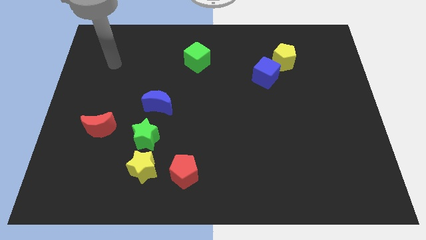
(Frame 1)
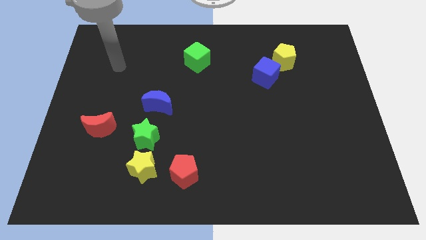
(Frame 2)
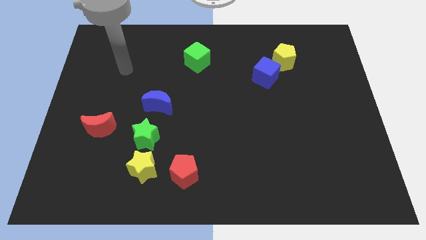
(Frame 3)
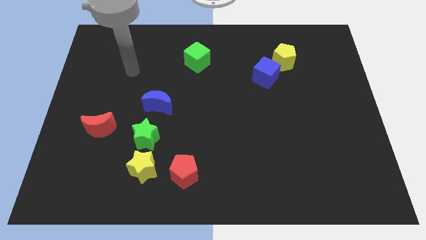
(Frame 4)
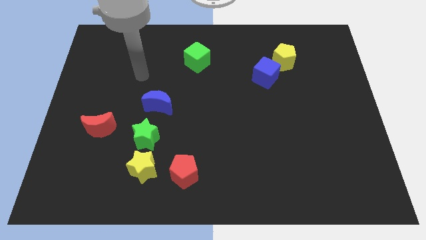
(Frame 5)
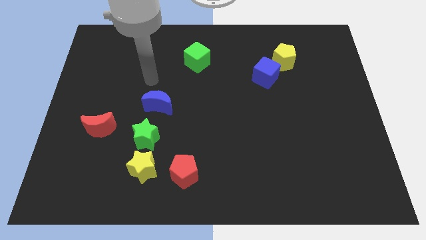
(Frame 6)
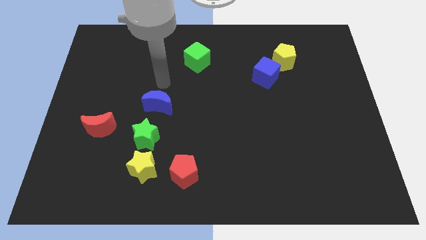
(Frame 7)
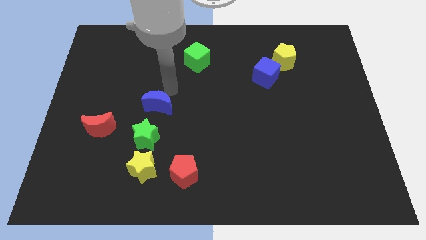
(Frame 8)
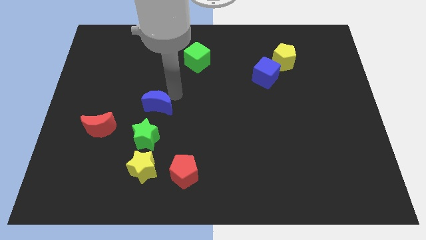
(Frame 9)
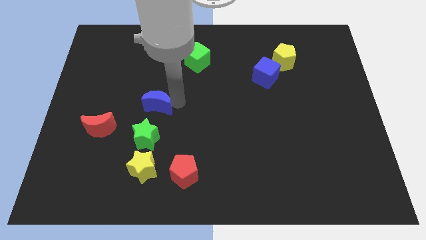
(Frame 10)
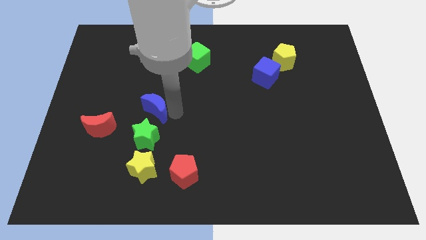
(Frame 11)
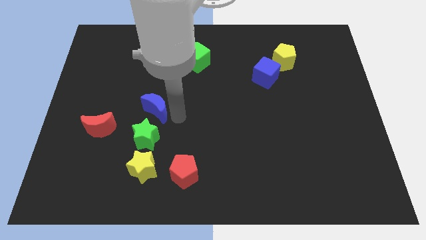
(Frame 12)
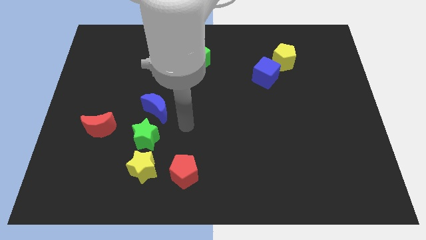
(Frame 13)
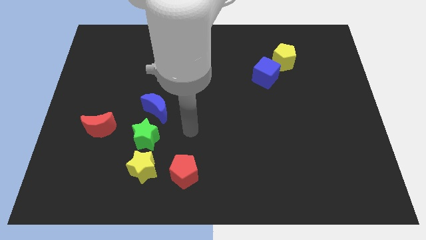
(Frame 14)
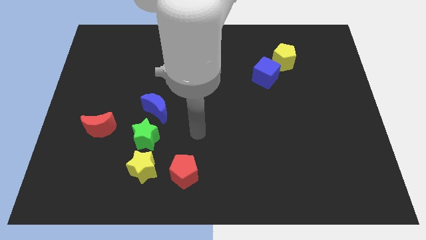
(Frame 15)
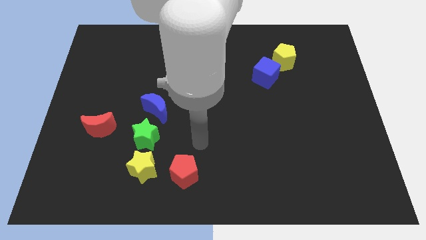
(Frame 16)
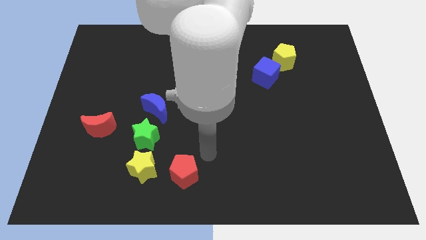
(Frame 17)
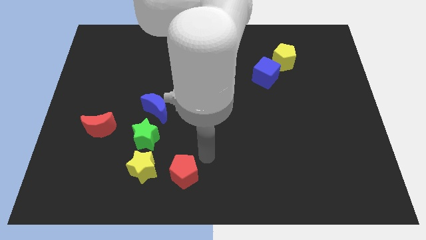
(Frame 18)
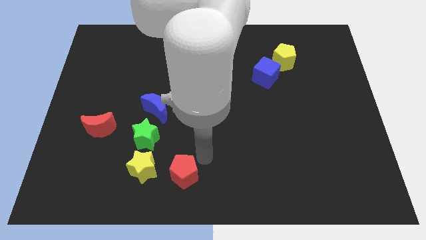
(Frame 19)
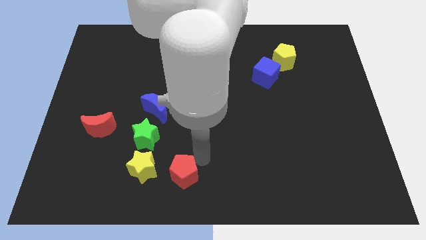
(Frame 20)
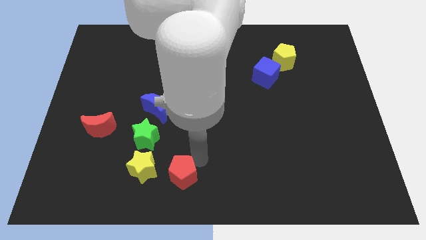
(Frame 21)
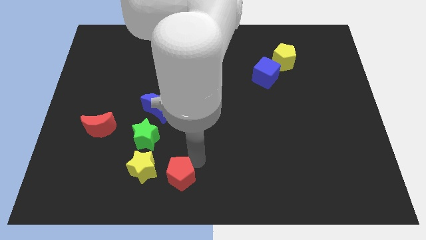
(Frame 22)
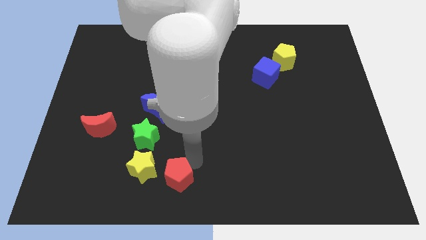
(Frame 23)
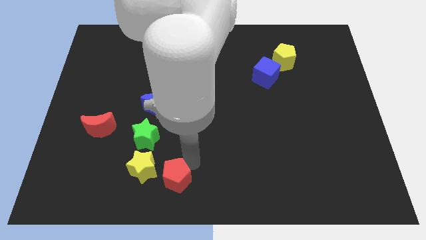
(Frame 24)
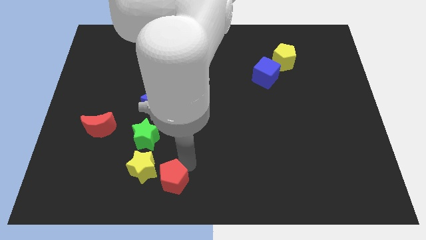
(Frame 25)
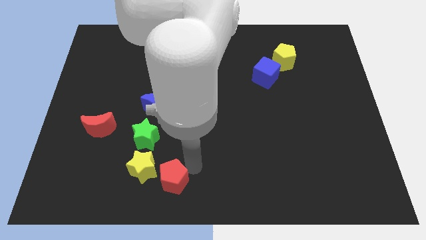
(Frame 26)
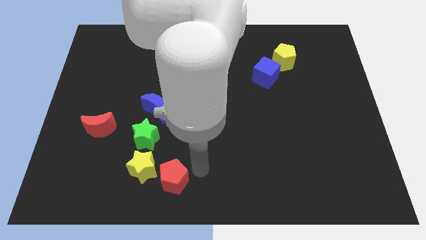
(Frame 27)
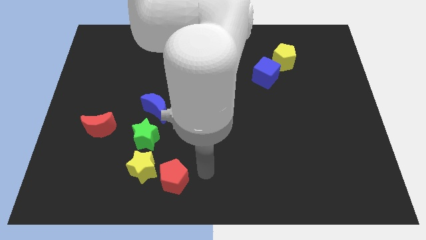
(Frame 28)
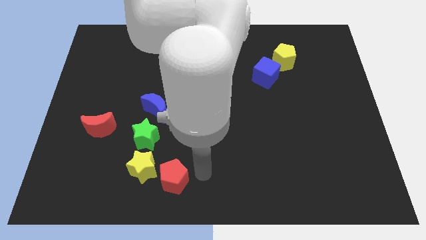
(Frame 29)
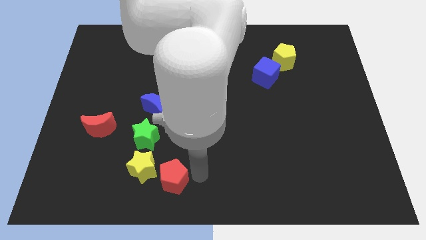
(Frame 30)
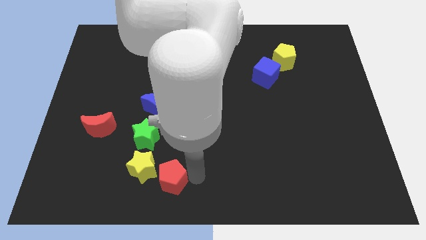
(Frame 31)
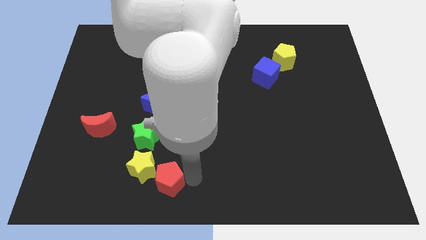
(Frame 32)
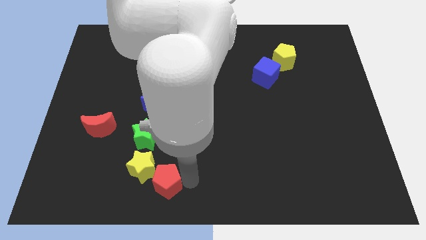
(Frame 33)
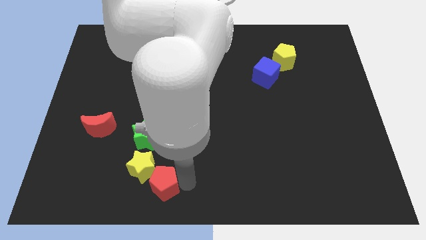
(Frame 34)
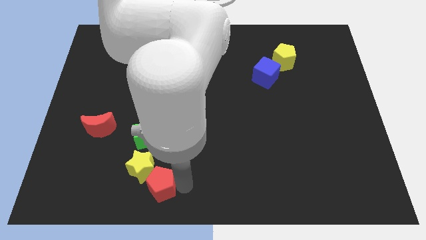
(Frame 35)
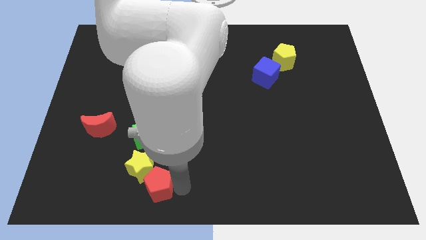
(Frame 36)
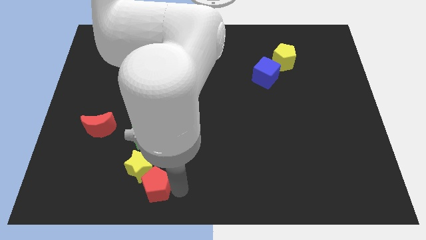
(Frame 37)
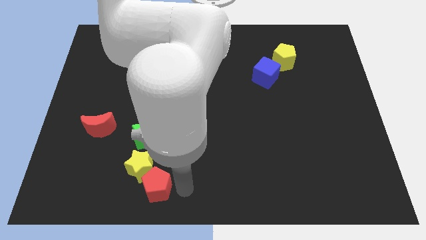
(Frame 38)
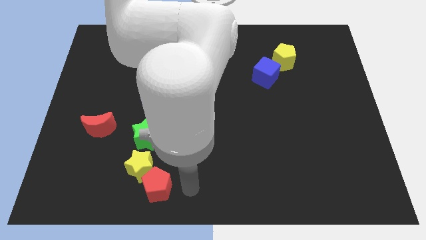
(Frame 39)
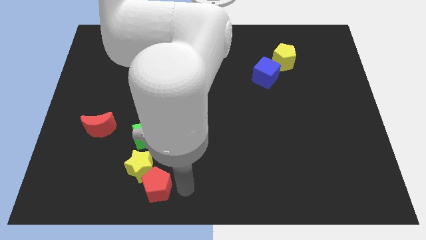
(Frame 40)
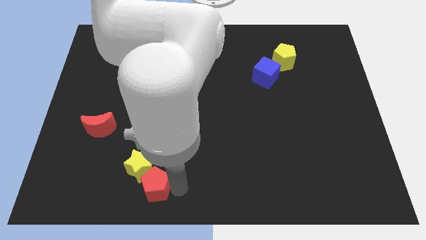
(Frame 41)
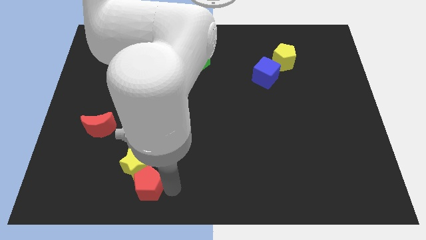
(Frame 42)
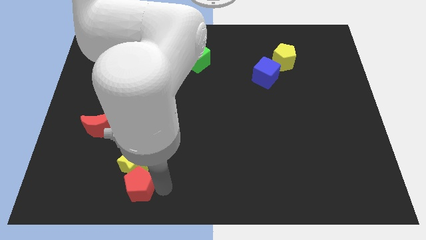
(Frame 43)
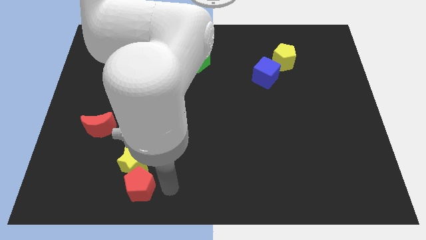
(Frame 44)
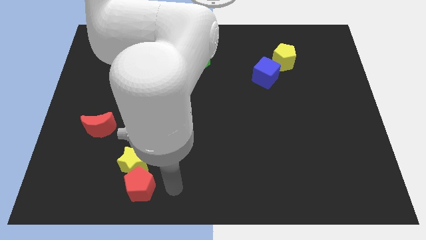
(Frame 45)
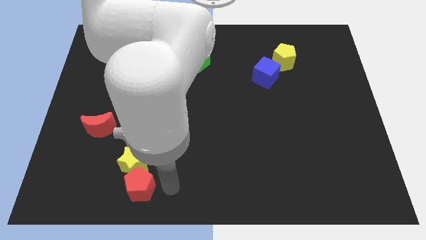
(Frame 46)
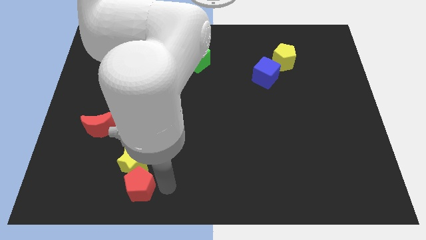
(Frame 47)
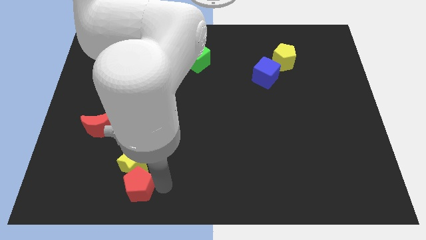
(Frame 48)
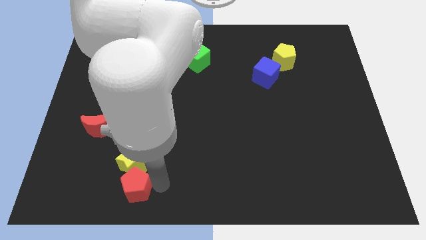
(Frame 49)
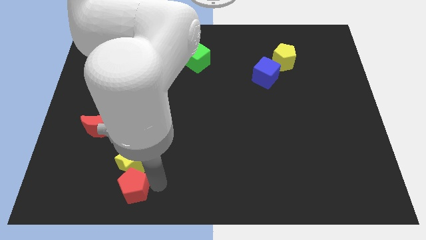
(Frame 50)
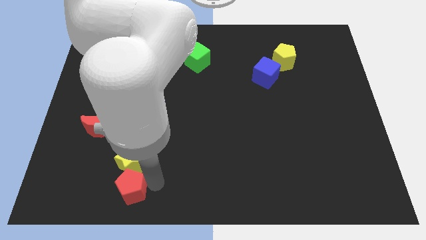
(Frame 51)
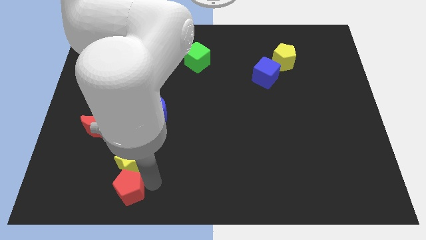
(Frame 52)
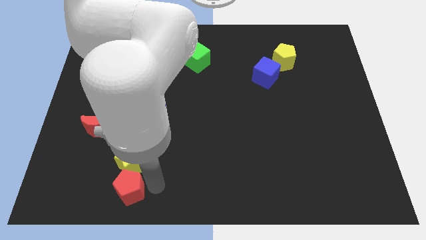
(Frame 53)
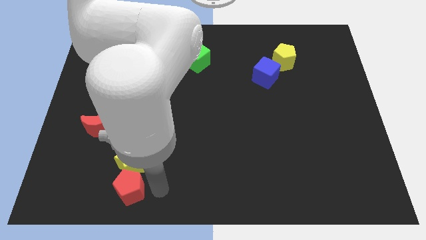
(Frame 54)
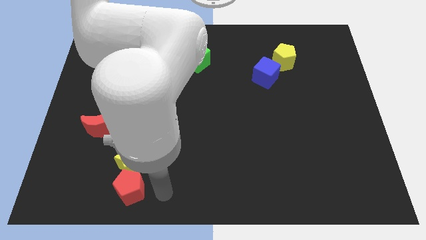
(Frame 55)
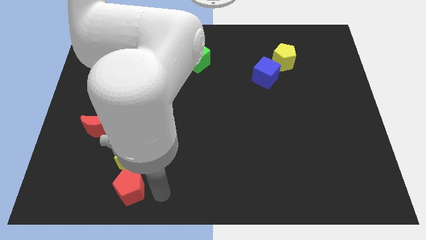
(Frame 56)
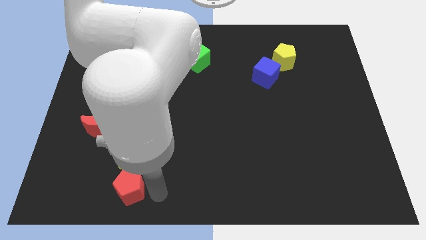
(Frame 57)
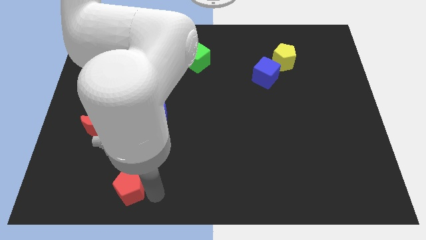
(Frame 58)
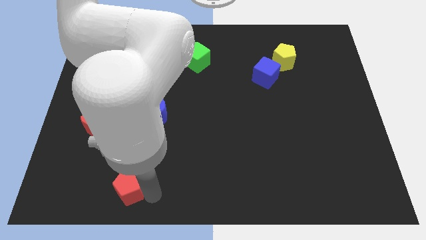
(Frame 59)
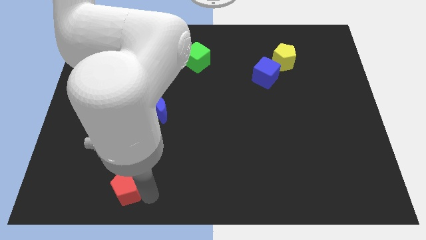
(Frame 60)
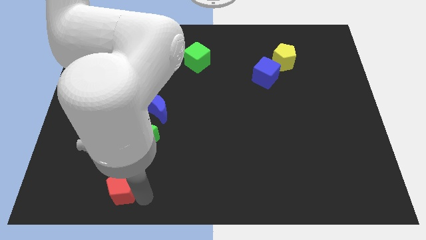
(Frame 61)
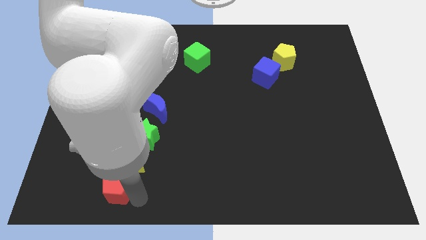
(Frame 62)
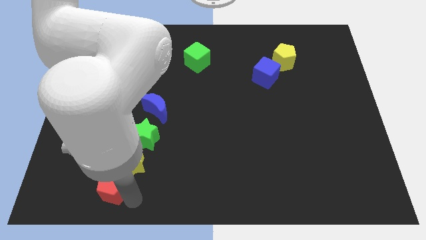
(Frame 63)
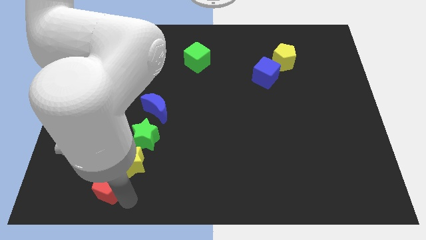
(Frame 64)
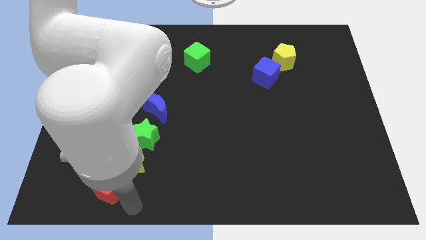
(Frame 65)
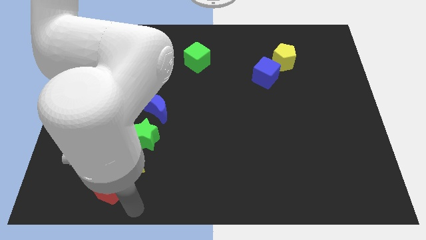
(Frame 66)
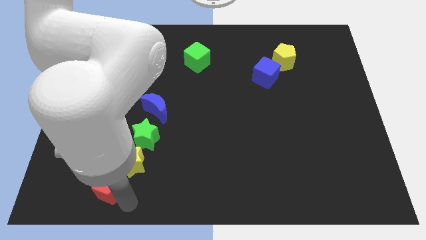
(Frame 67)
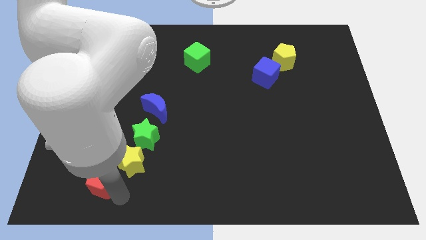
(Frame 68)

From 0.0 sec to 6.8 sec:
move the red pentagon left of the yellow star

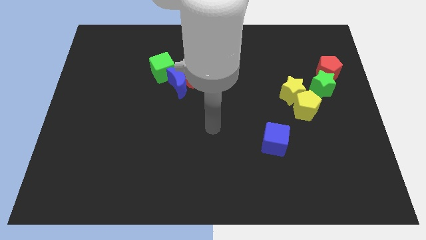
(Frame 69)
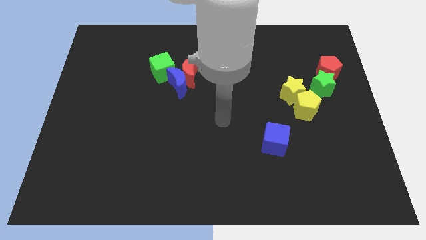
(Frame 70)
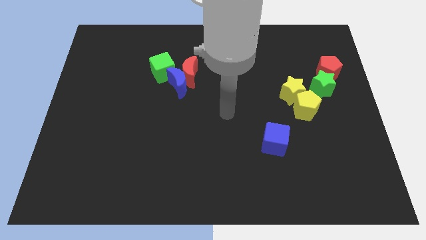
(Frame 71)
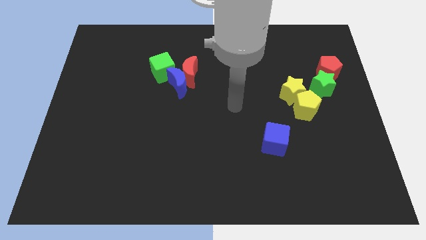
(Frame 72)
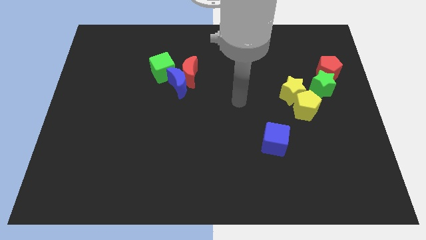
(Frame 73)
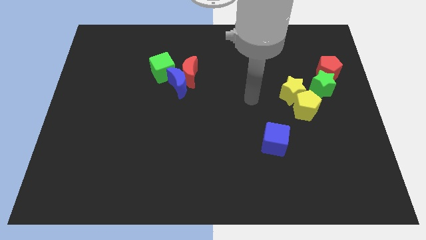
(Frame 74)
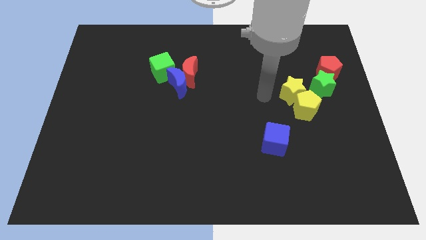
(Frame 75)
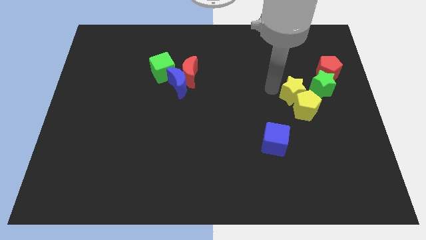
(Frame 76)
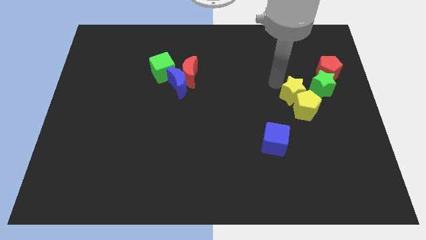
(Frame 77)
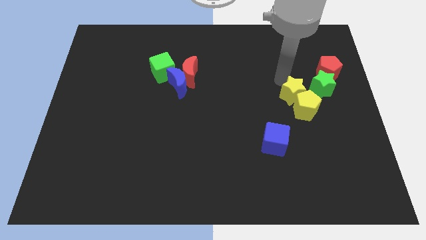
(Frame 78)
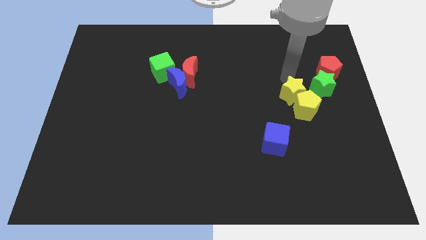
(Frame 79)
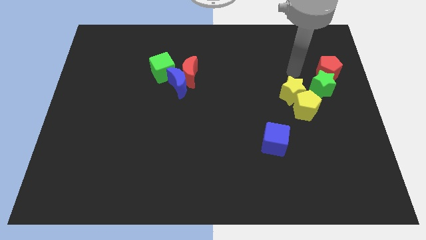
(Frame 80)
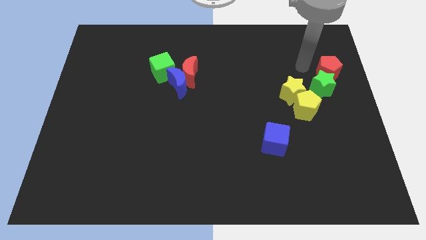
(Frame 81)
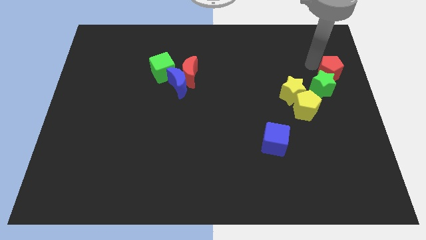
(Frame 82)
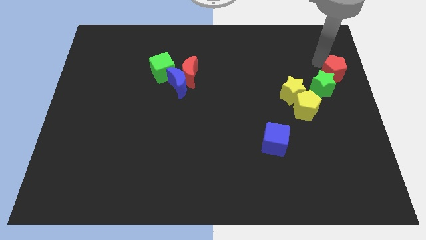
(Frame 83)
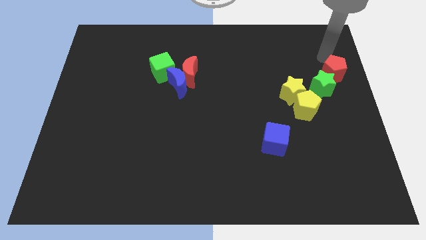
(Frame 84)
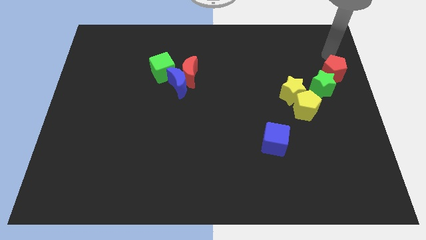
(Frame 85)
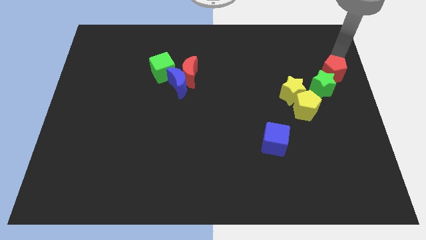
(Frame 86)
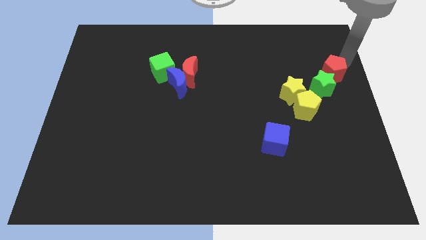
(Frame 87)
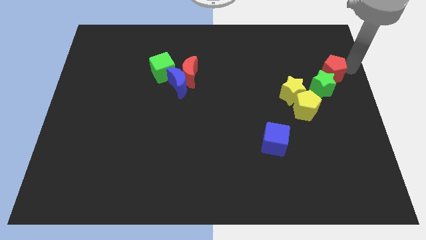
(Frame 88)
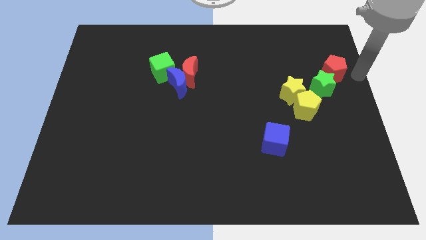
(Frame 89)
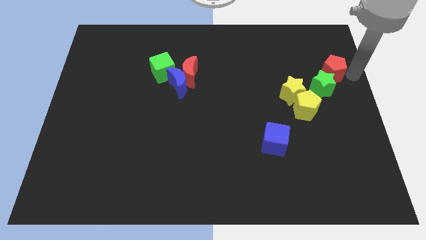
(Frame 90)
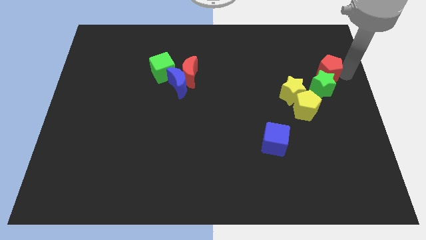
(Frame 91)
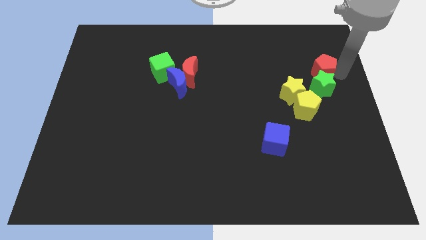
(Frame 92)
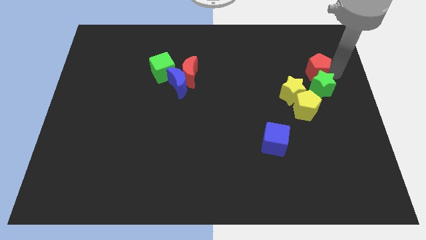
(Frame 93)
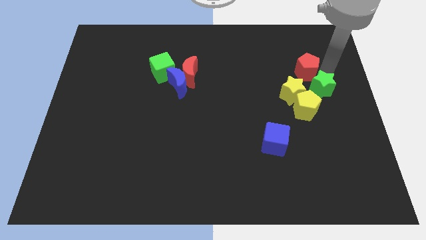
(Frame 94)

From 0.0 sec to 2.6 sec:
move the red pentagon to the top side of the yellow star
